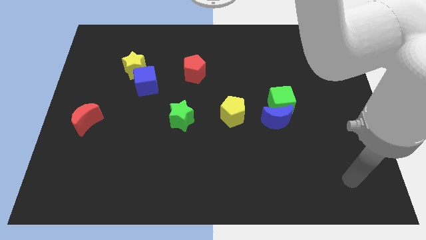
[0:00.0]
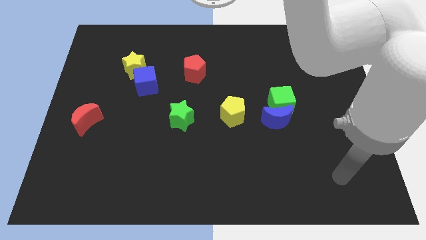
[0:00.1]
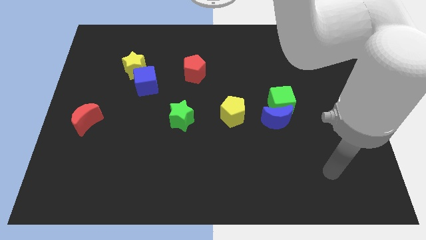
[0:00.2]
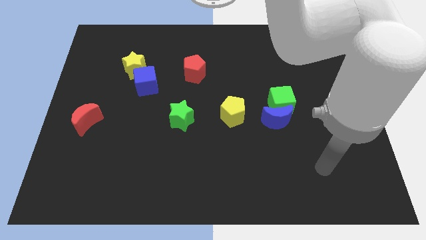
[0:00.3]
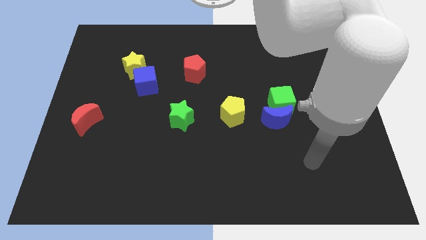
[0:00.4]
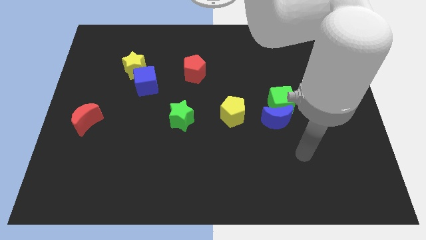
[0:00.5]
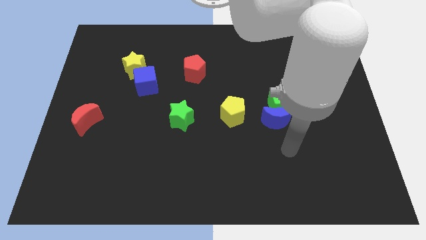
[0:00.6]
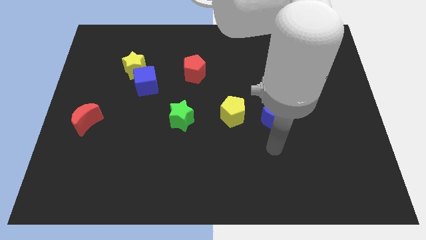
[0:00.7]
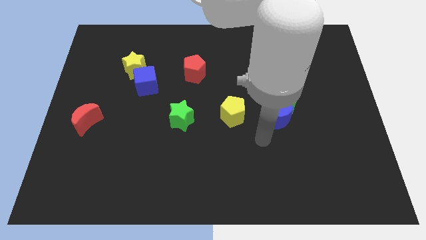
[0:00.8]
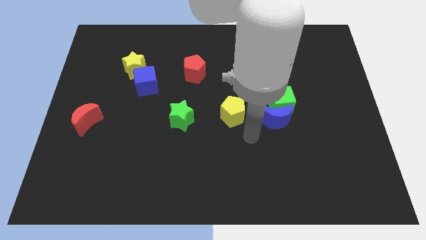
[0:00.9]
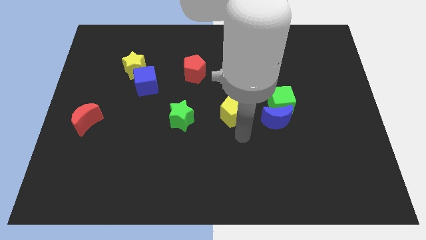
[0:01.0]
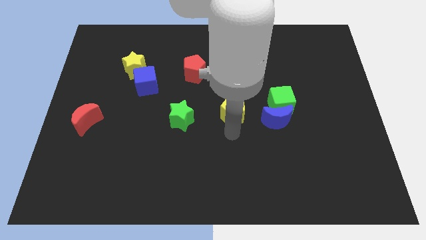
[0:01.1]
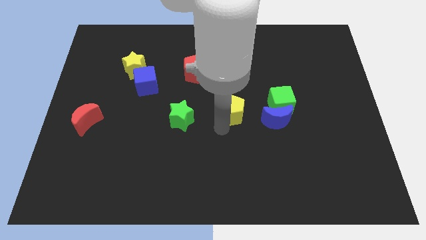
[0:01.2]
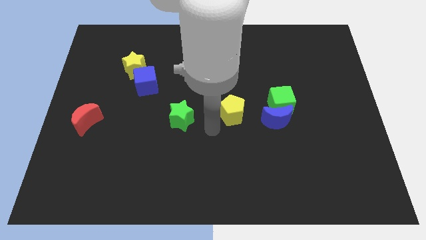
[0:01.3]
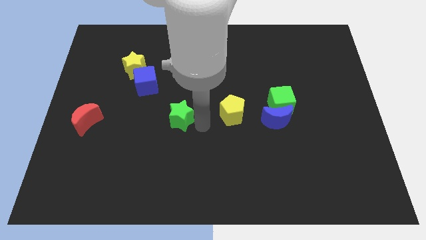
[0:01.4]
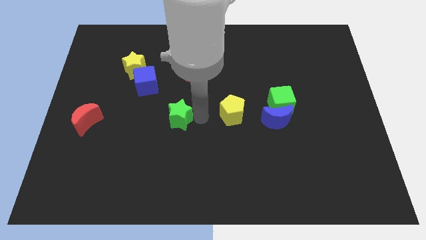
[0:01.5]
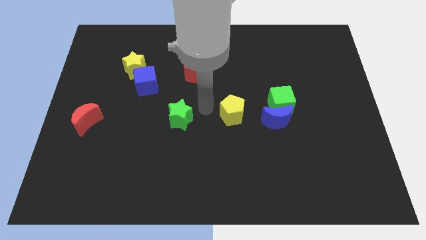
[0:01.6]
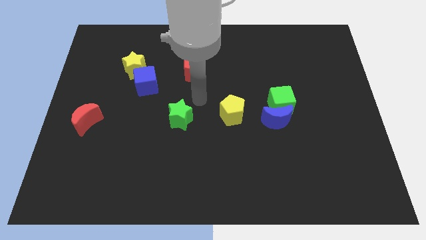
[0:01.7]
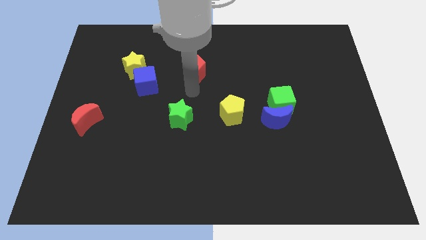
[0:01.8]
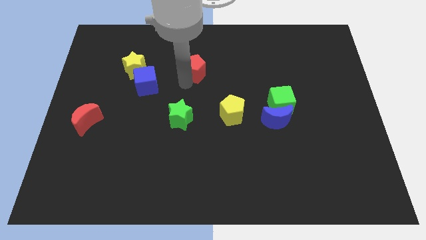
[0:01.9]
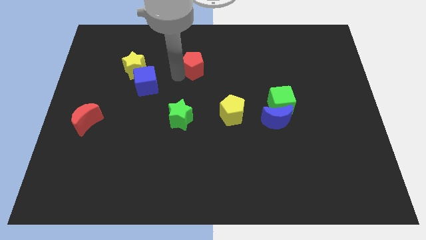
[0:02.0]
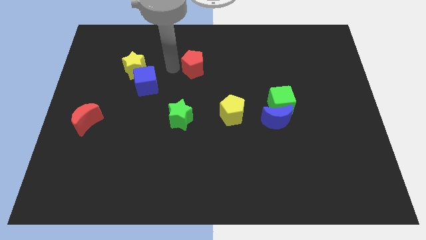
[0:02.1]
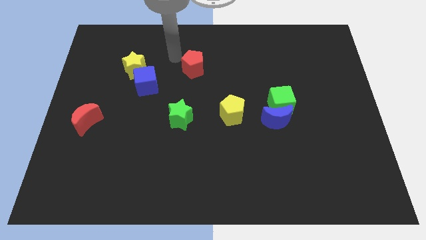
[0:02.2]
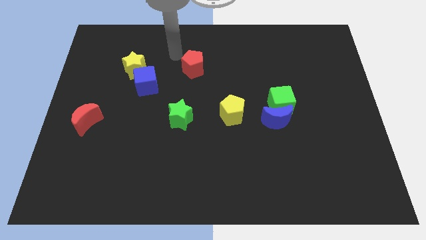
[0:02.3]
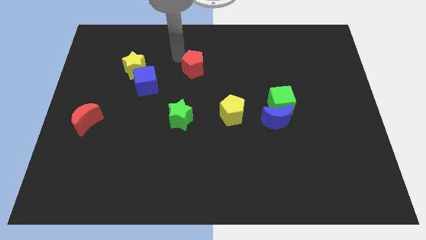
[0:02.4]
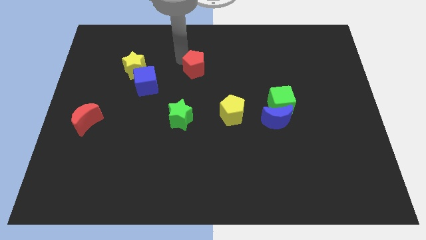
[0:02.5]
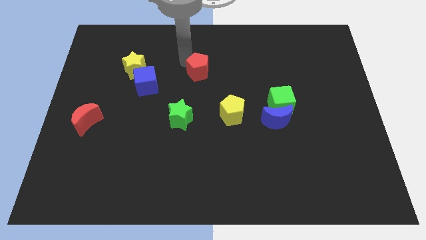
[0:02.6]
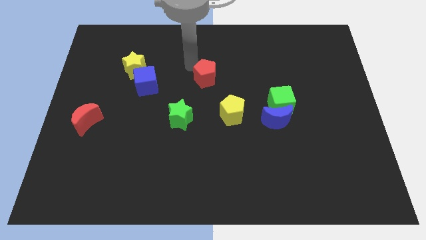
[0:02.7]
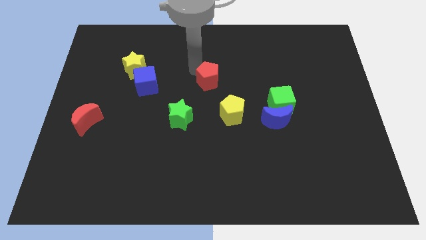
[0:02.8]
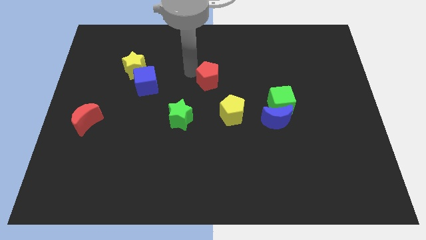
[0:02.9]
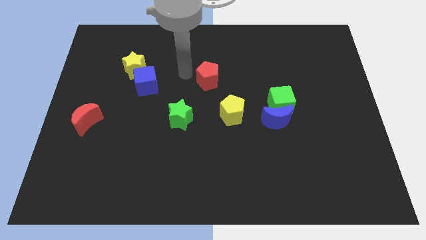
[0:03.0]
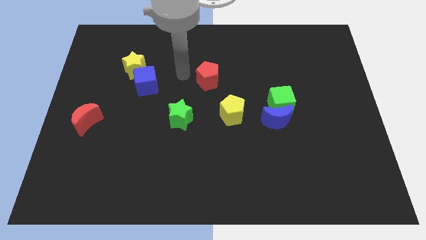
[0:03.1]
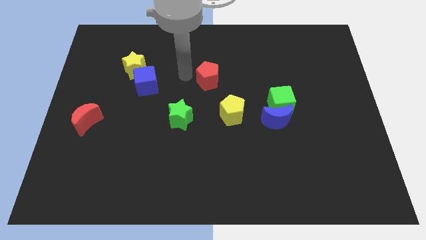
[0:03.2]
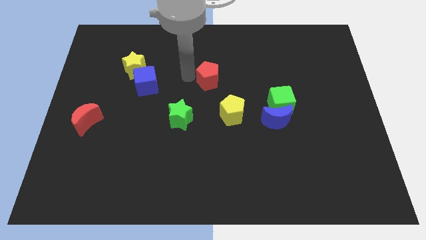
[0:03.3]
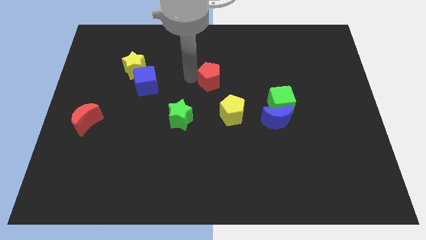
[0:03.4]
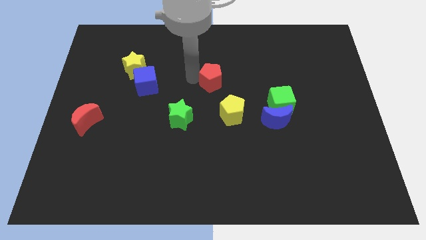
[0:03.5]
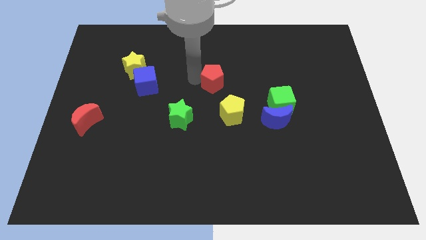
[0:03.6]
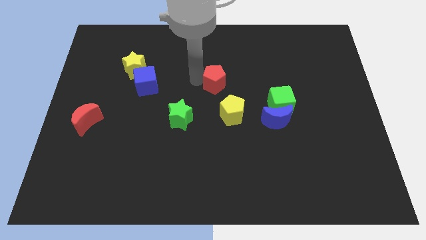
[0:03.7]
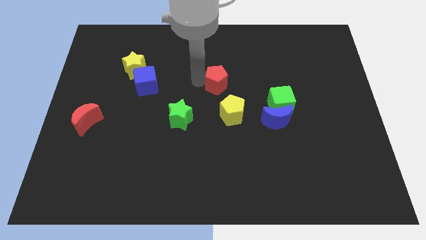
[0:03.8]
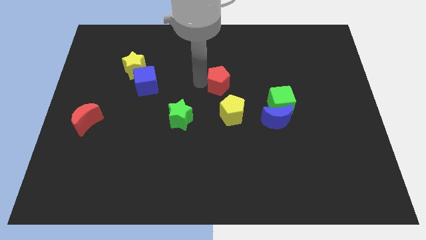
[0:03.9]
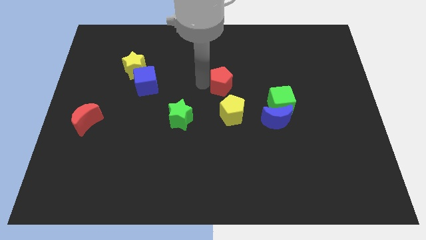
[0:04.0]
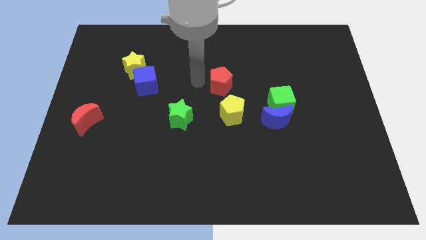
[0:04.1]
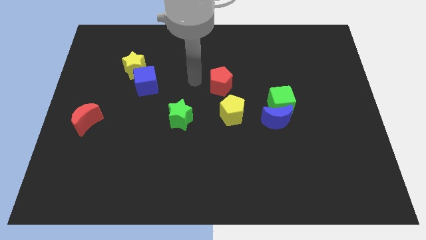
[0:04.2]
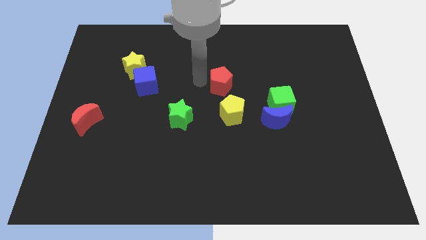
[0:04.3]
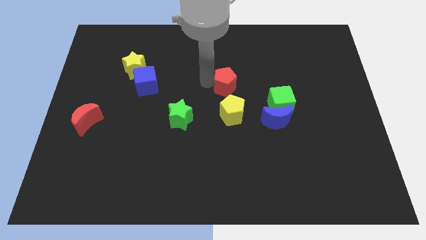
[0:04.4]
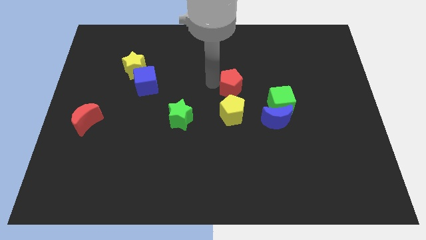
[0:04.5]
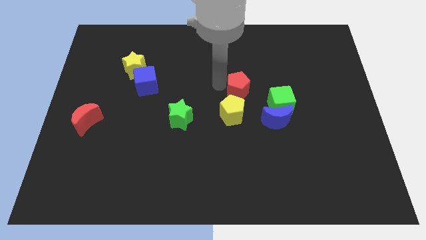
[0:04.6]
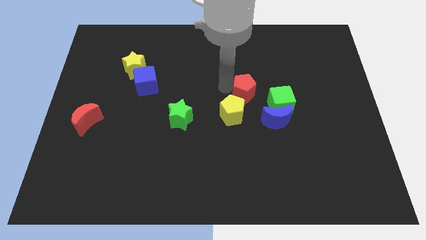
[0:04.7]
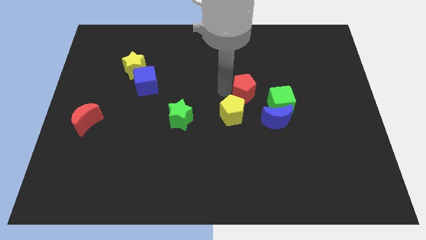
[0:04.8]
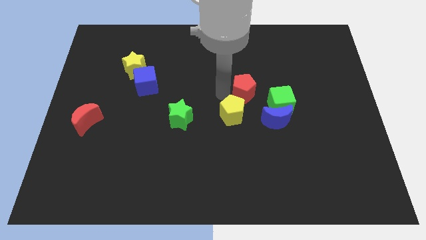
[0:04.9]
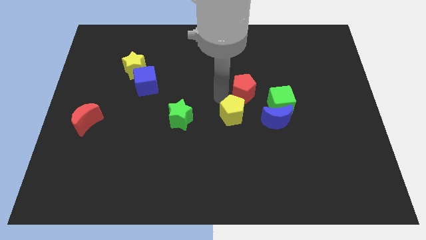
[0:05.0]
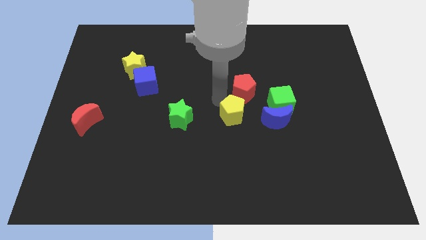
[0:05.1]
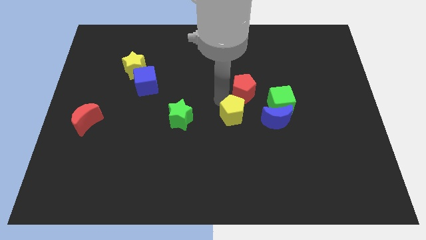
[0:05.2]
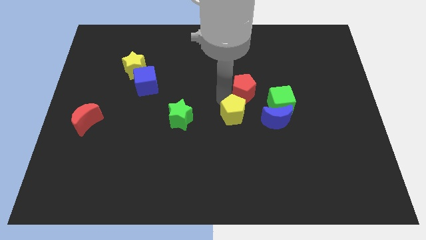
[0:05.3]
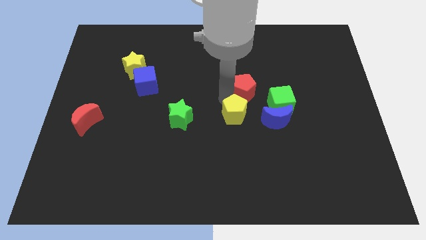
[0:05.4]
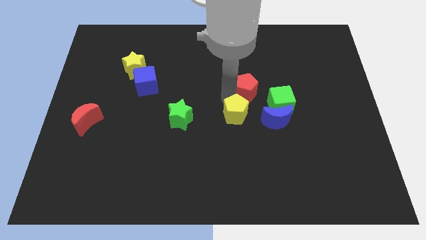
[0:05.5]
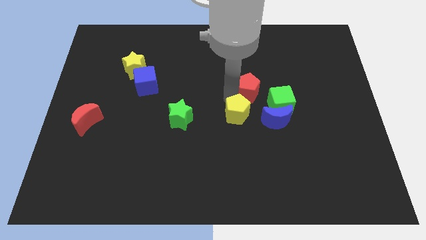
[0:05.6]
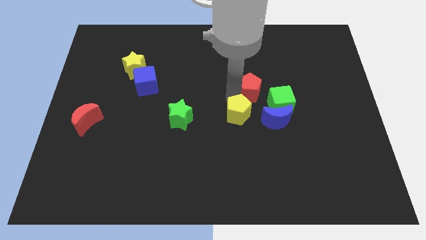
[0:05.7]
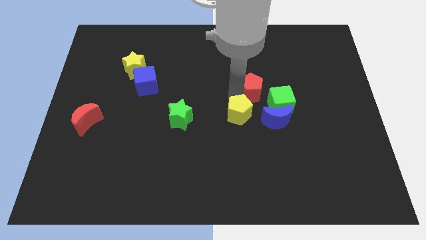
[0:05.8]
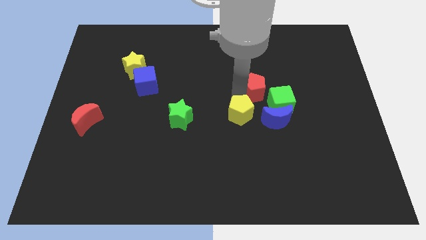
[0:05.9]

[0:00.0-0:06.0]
put the red pentagon to the top side of the blue moon
